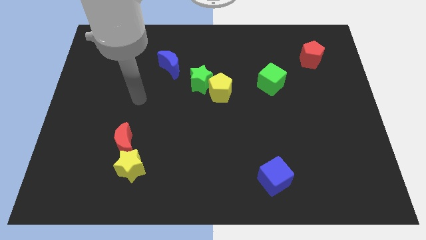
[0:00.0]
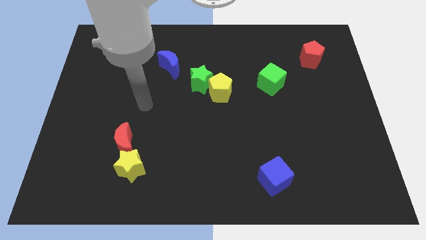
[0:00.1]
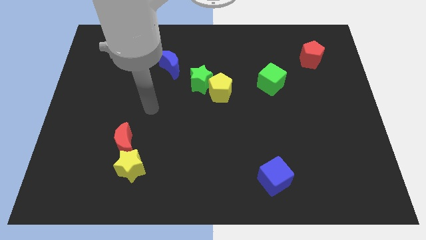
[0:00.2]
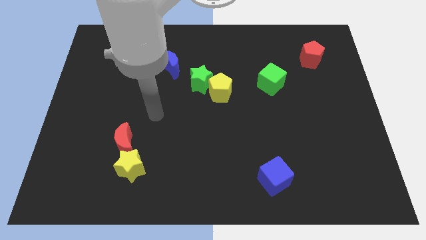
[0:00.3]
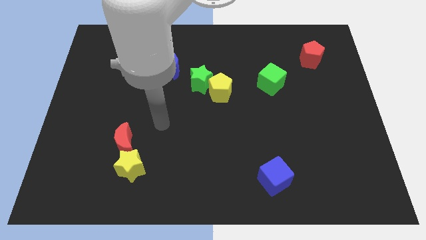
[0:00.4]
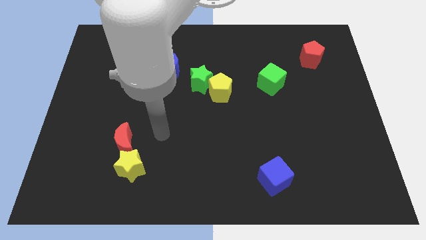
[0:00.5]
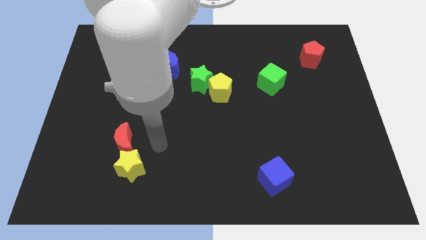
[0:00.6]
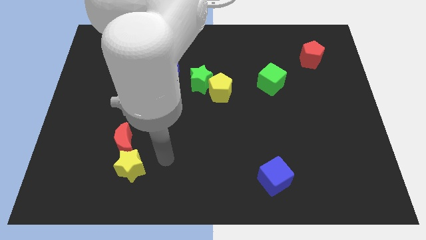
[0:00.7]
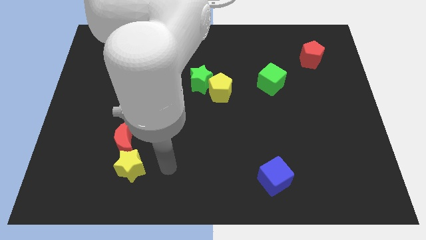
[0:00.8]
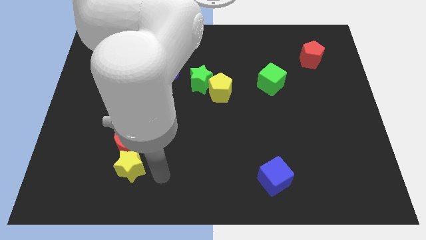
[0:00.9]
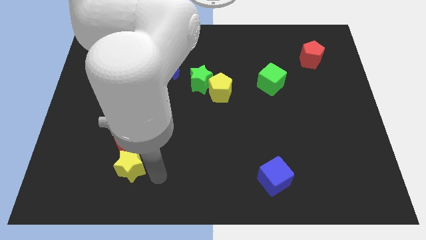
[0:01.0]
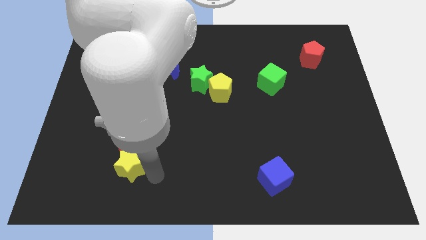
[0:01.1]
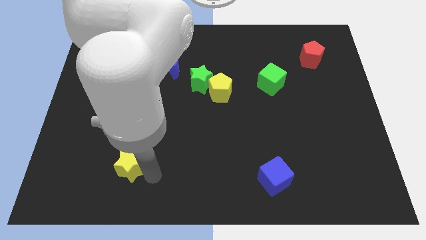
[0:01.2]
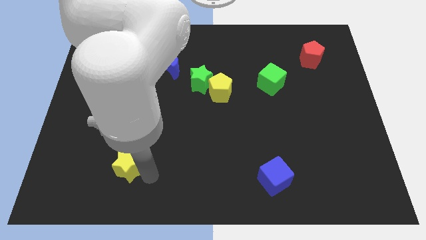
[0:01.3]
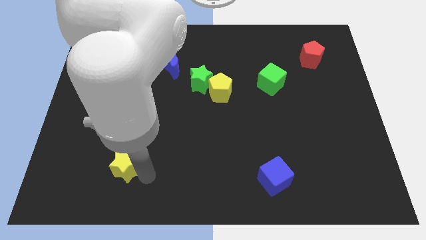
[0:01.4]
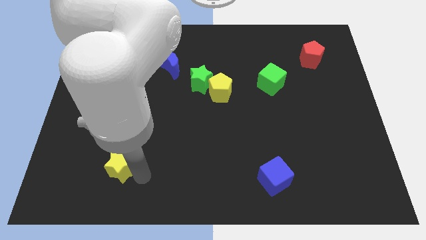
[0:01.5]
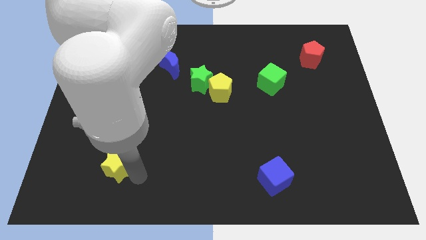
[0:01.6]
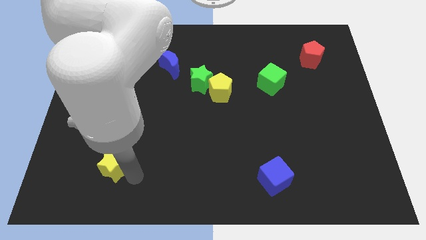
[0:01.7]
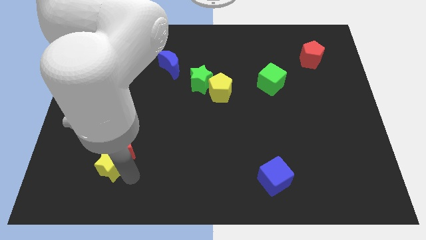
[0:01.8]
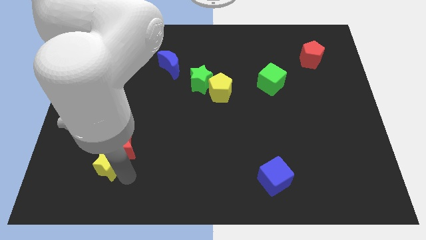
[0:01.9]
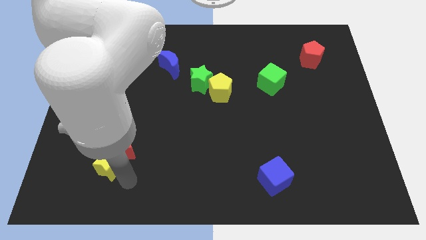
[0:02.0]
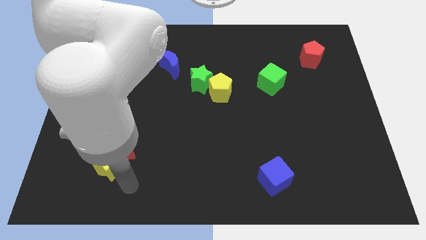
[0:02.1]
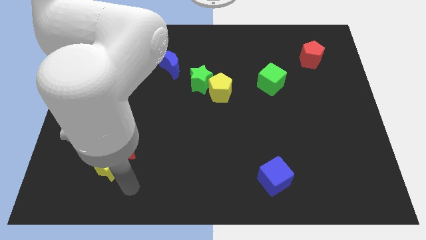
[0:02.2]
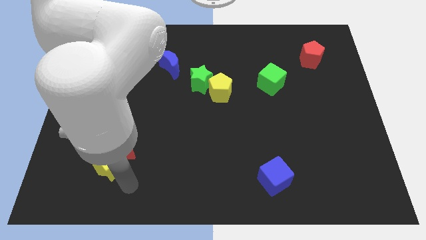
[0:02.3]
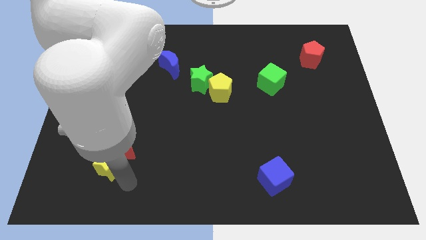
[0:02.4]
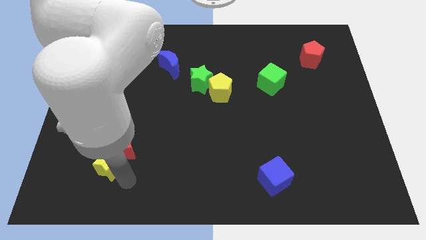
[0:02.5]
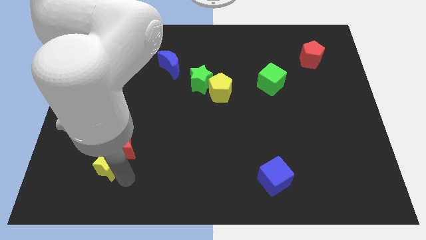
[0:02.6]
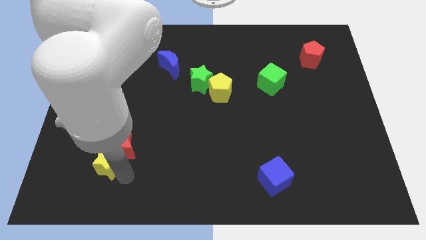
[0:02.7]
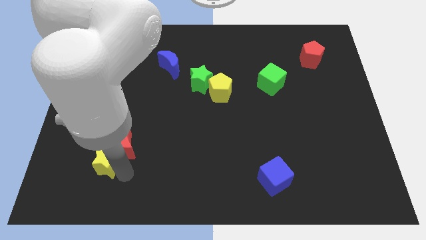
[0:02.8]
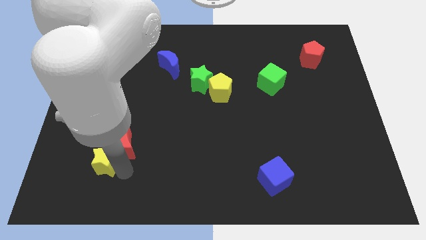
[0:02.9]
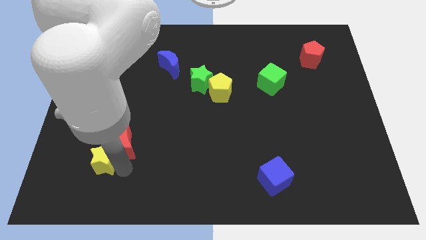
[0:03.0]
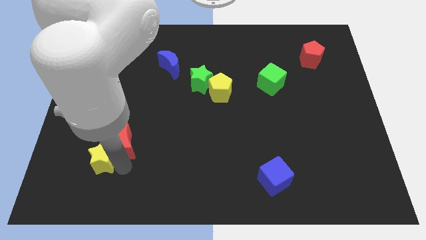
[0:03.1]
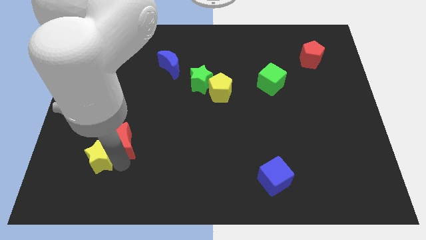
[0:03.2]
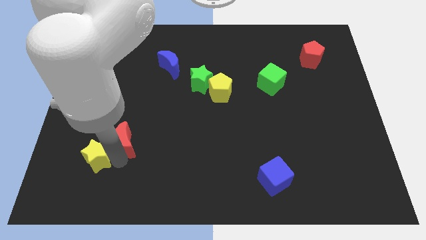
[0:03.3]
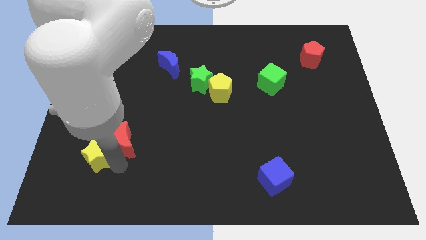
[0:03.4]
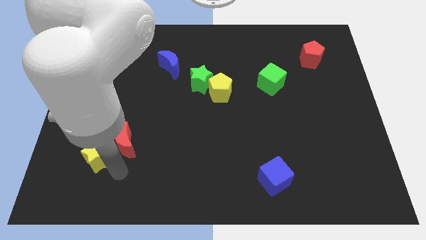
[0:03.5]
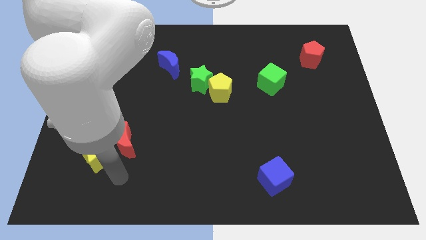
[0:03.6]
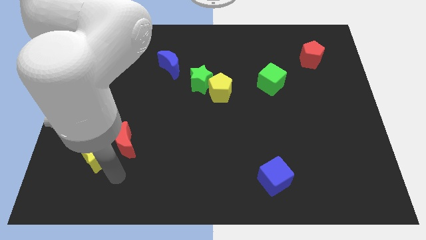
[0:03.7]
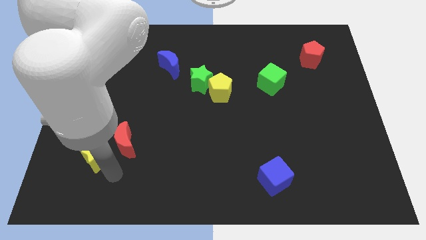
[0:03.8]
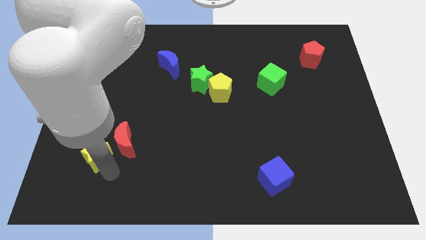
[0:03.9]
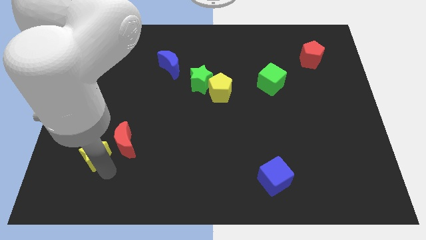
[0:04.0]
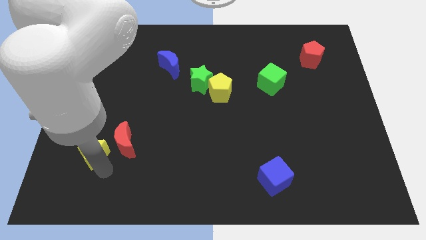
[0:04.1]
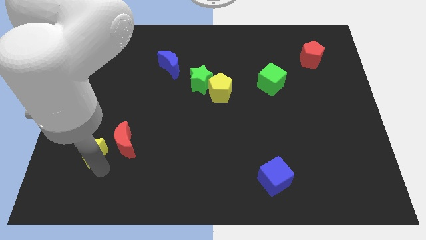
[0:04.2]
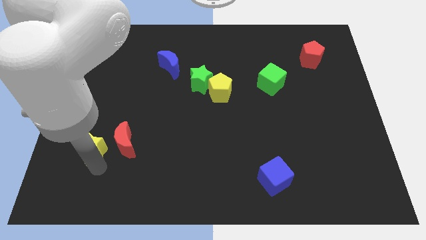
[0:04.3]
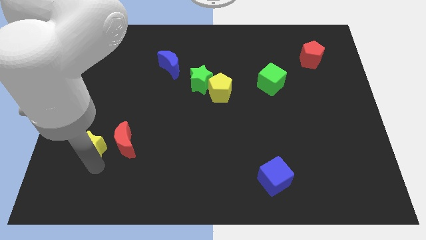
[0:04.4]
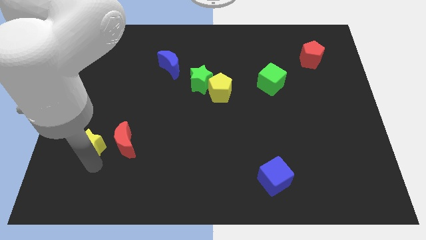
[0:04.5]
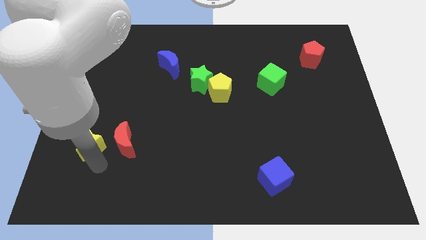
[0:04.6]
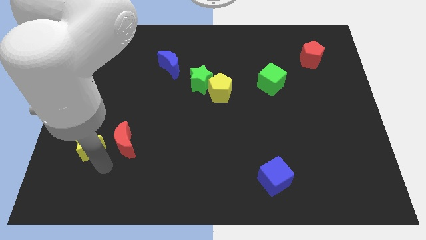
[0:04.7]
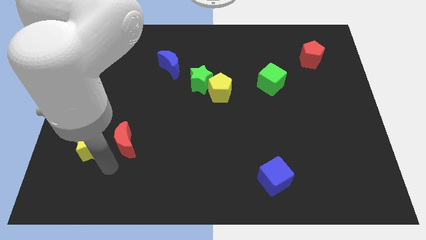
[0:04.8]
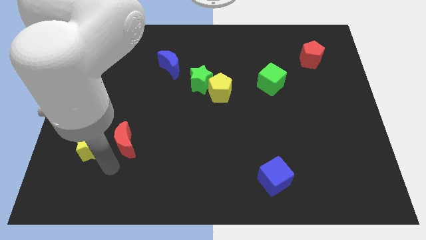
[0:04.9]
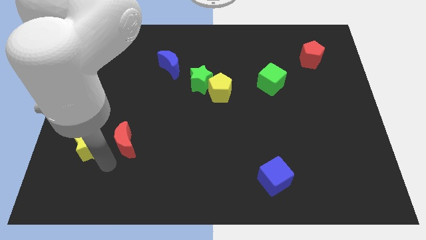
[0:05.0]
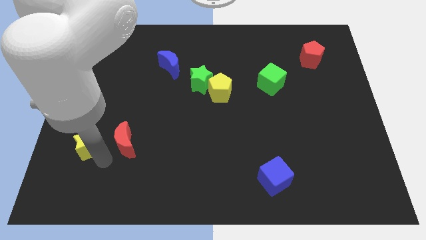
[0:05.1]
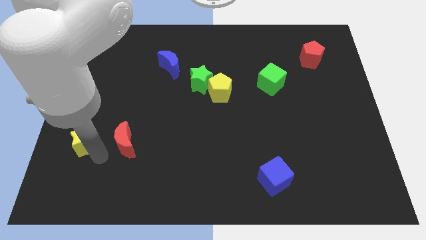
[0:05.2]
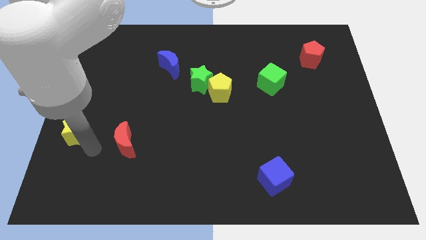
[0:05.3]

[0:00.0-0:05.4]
slide the yellow star to the left side
